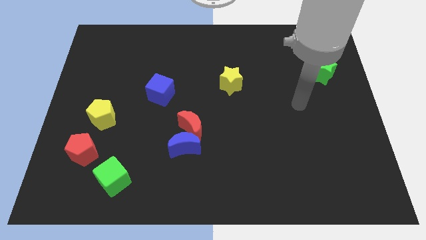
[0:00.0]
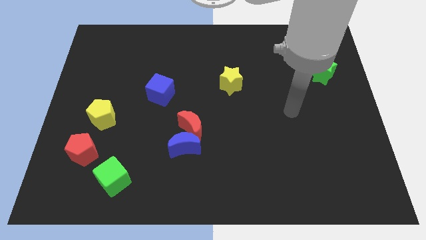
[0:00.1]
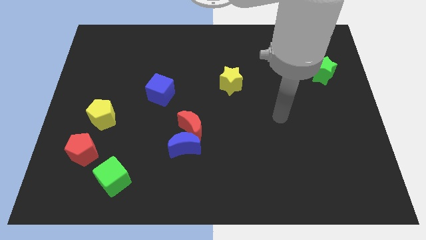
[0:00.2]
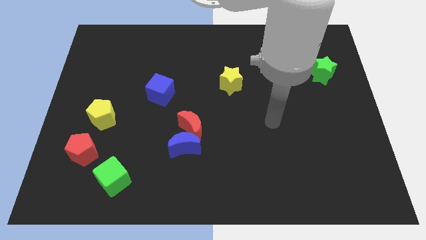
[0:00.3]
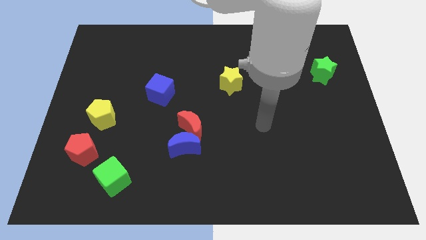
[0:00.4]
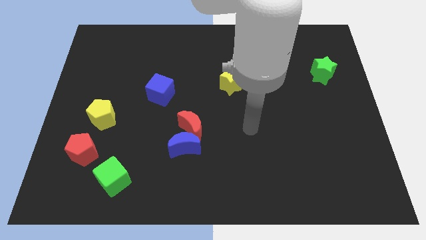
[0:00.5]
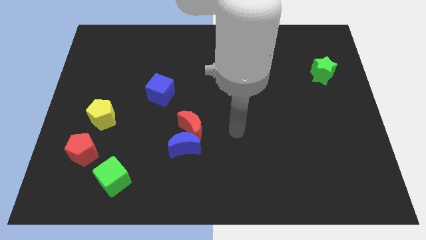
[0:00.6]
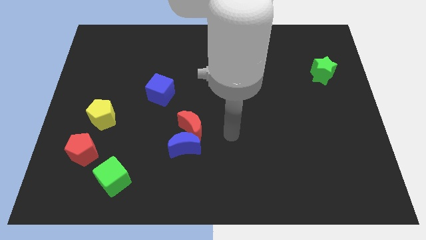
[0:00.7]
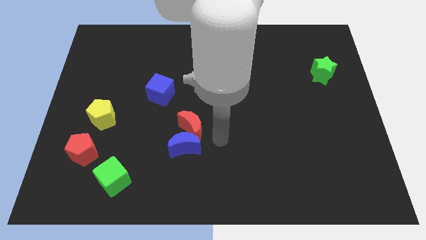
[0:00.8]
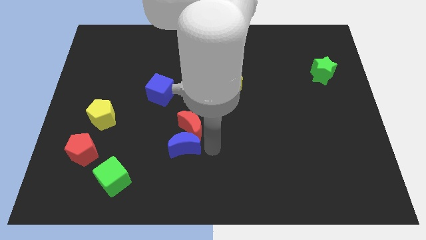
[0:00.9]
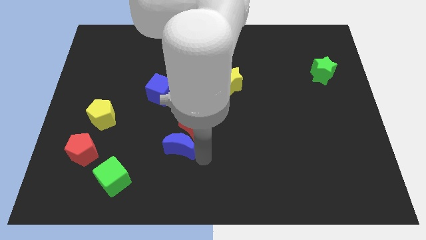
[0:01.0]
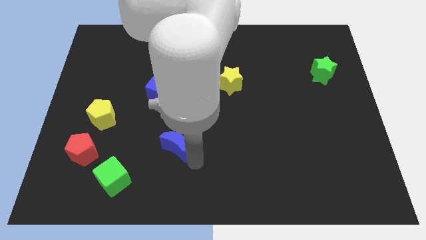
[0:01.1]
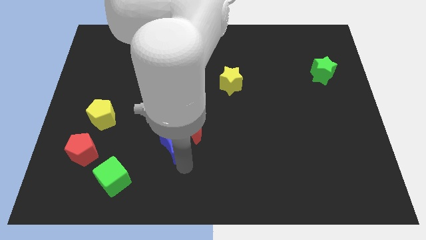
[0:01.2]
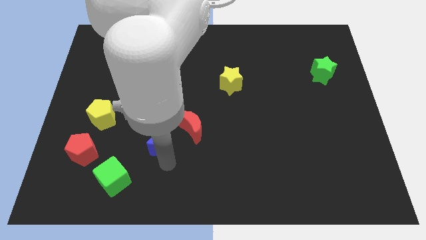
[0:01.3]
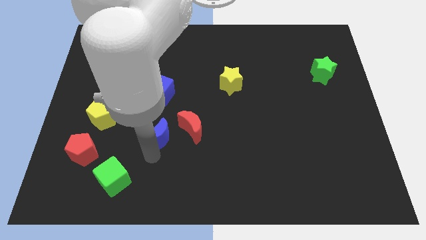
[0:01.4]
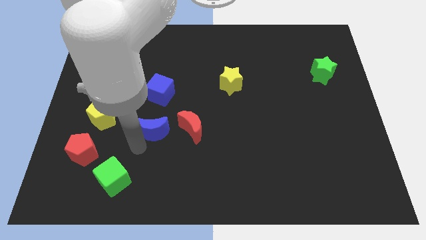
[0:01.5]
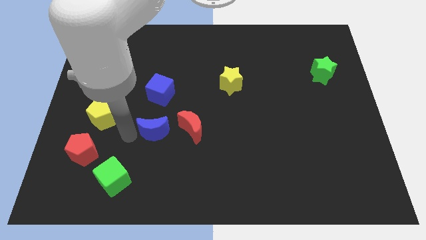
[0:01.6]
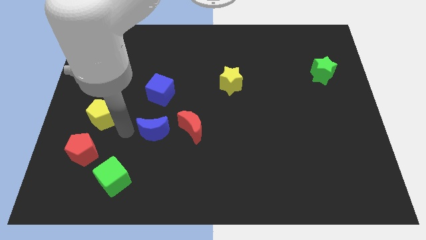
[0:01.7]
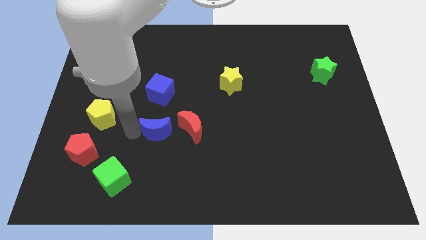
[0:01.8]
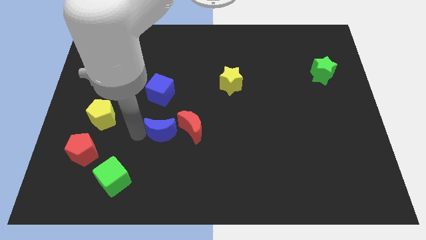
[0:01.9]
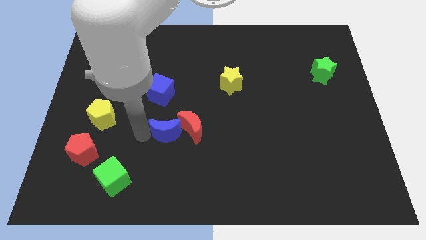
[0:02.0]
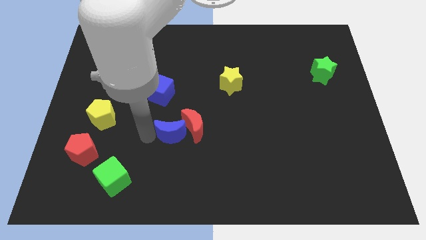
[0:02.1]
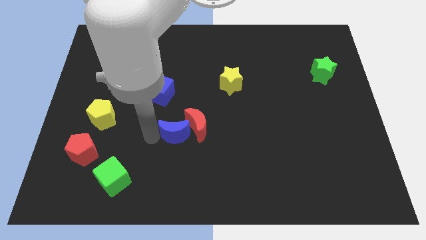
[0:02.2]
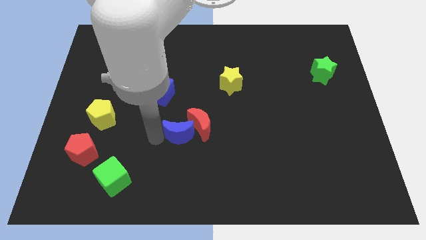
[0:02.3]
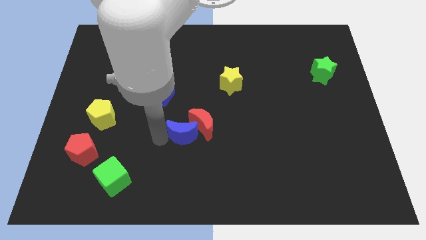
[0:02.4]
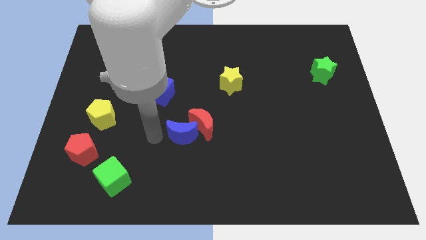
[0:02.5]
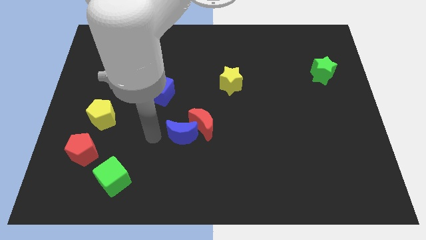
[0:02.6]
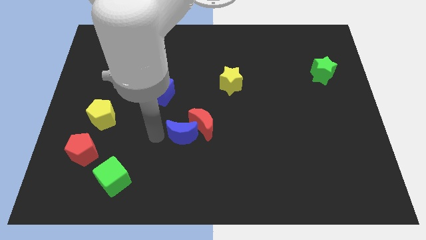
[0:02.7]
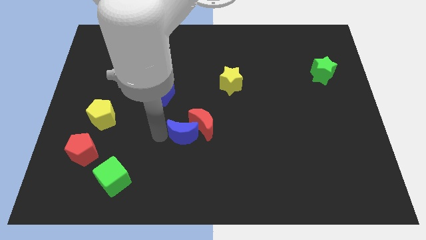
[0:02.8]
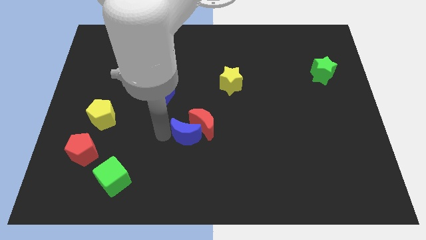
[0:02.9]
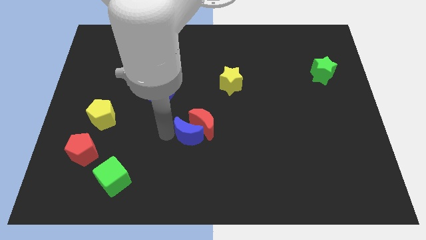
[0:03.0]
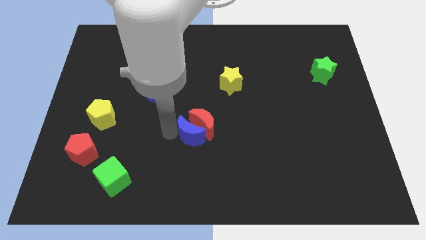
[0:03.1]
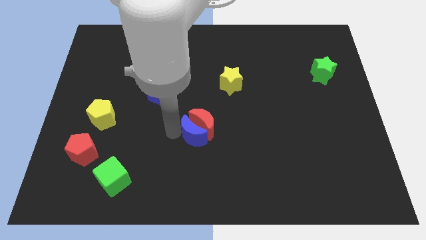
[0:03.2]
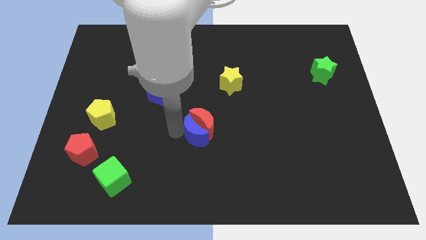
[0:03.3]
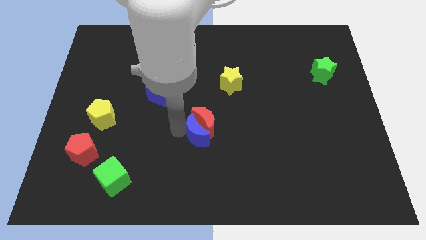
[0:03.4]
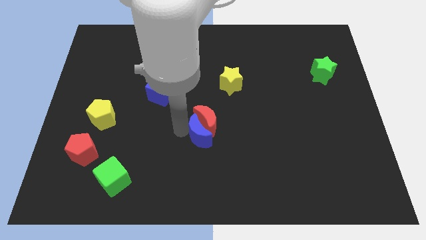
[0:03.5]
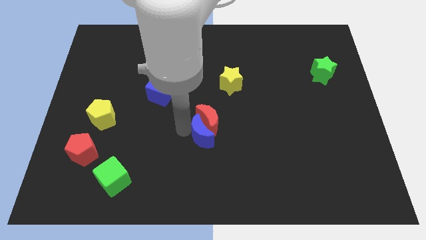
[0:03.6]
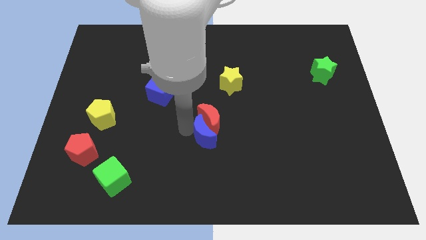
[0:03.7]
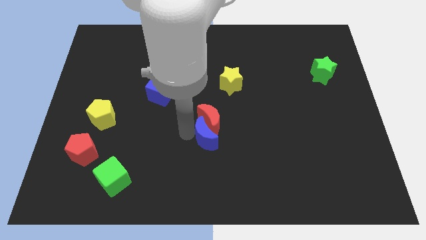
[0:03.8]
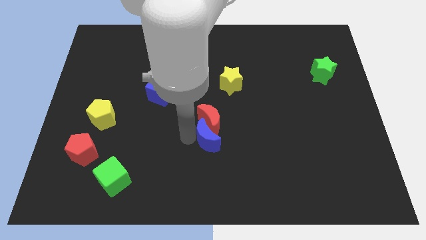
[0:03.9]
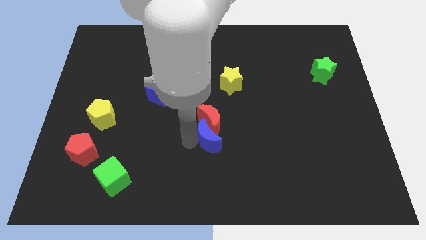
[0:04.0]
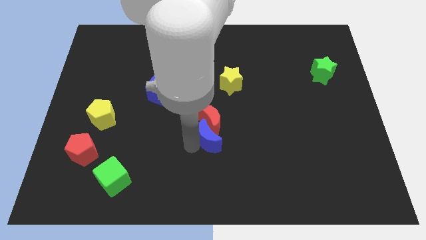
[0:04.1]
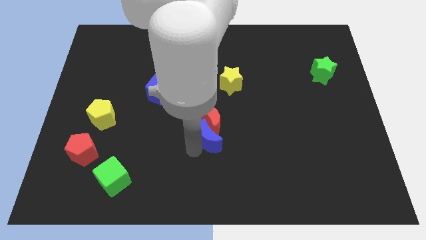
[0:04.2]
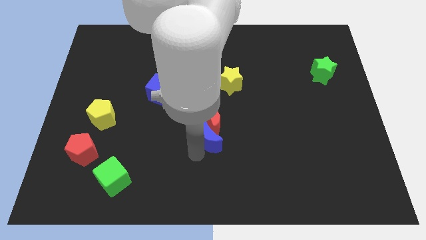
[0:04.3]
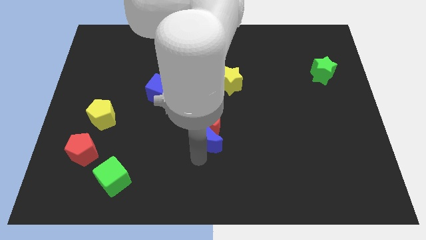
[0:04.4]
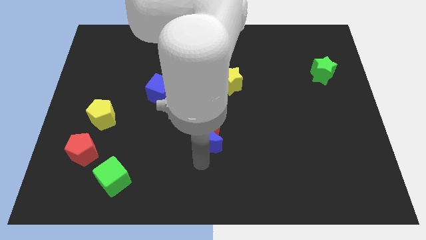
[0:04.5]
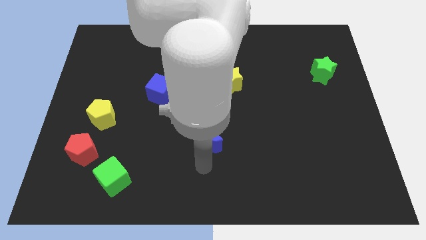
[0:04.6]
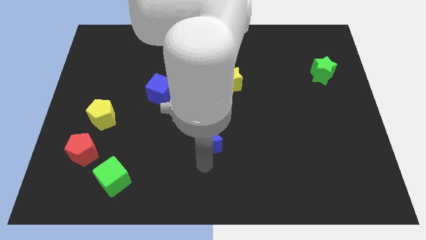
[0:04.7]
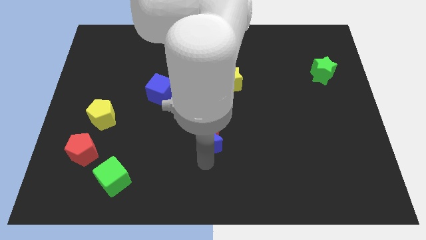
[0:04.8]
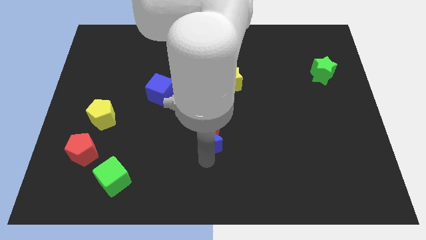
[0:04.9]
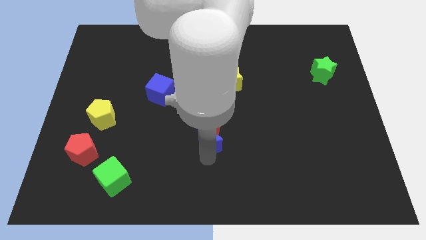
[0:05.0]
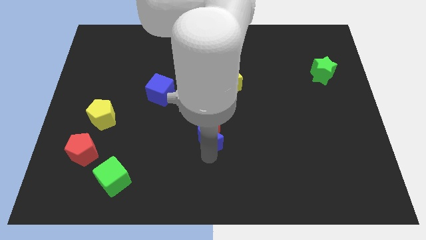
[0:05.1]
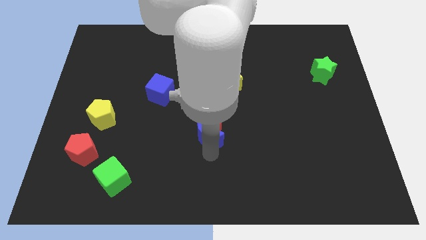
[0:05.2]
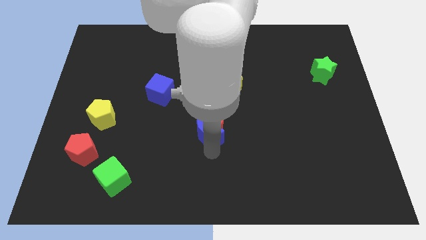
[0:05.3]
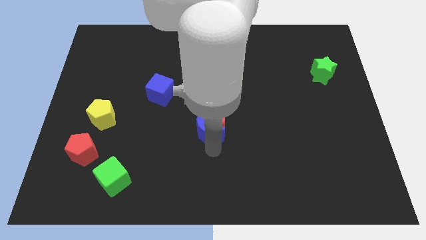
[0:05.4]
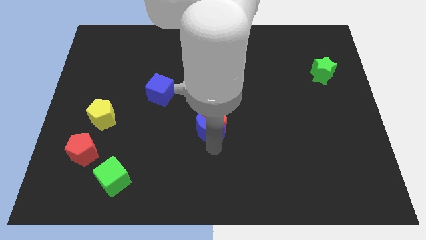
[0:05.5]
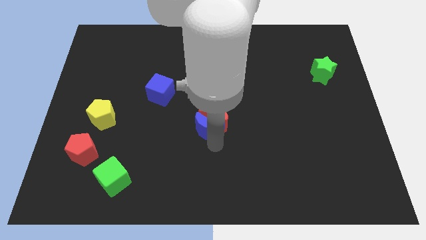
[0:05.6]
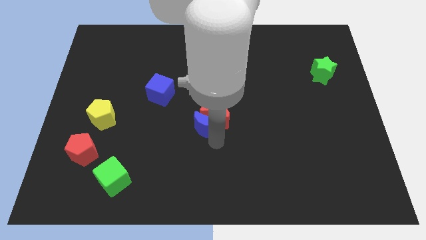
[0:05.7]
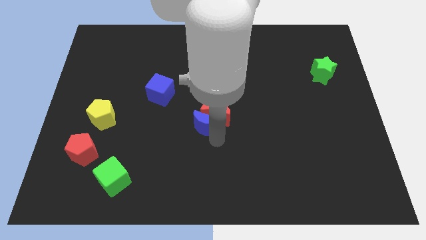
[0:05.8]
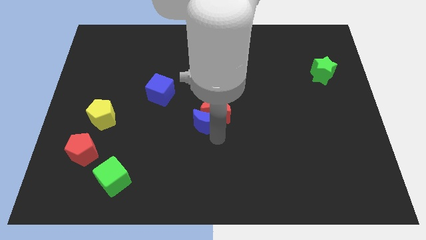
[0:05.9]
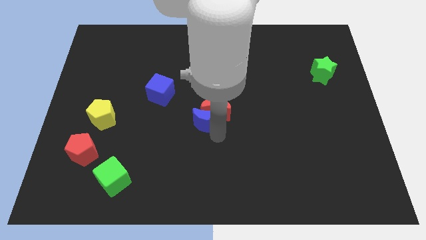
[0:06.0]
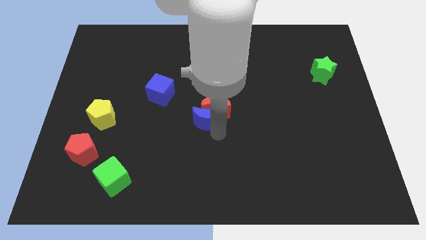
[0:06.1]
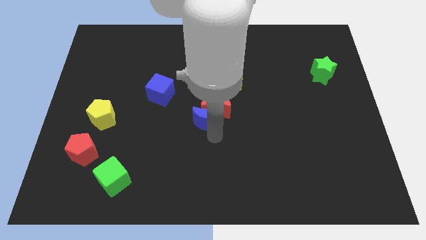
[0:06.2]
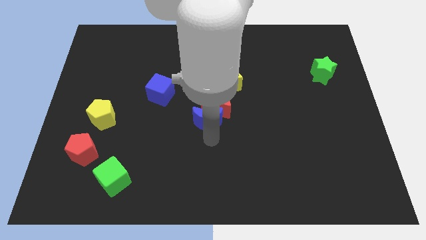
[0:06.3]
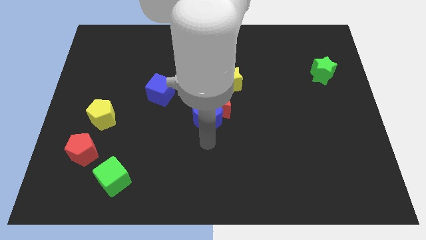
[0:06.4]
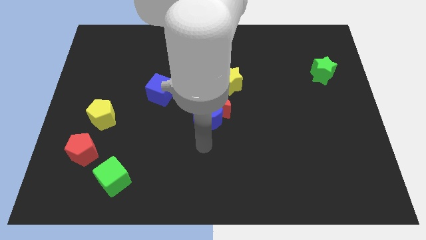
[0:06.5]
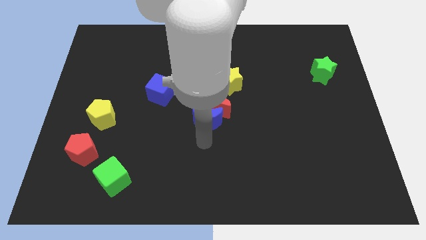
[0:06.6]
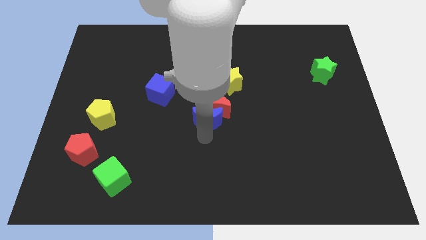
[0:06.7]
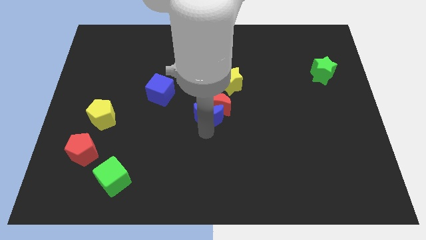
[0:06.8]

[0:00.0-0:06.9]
slide the blue moon to the bottom left of the yellow star
